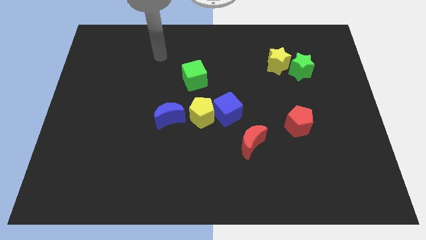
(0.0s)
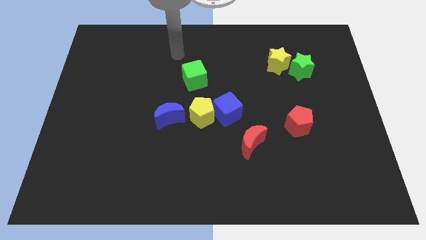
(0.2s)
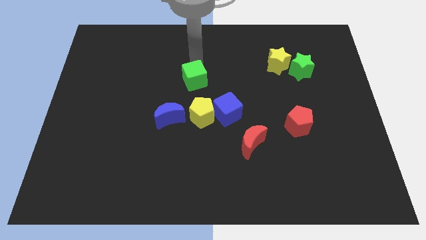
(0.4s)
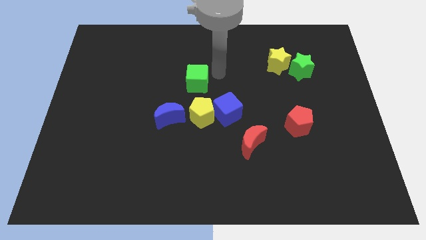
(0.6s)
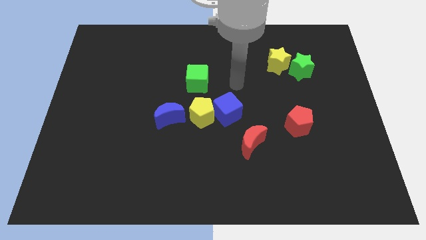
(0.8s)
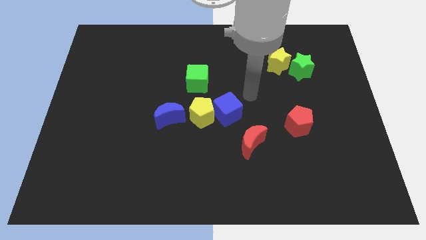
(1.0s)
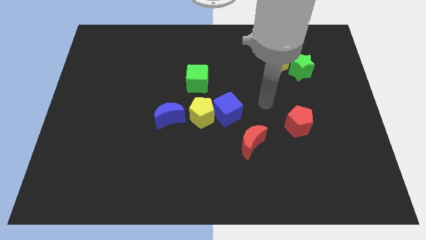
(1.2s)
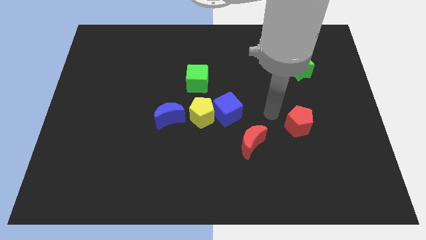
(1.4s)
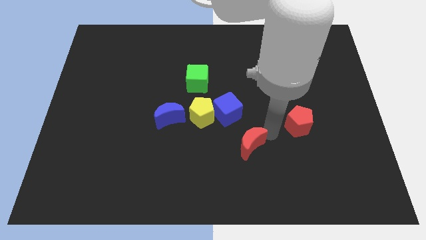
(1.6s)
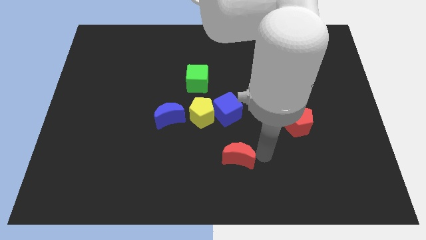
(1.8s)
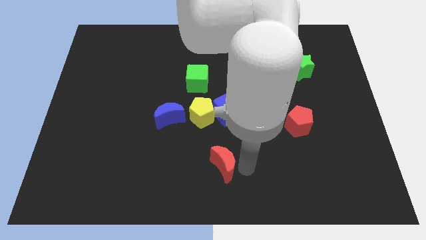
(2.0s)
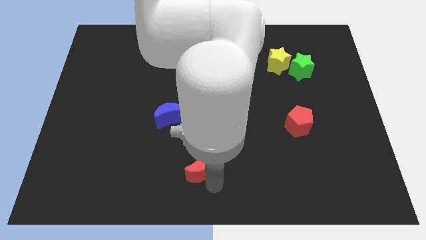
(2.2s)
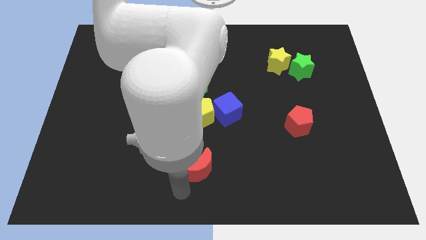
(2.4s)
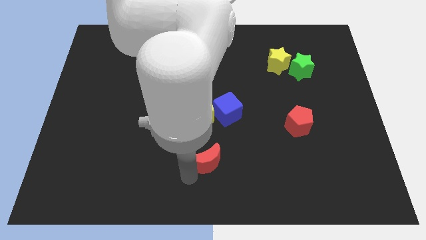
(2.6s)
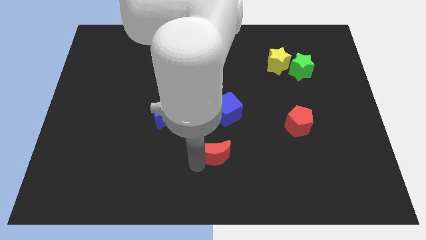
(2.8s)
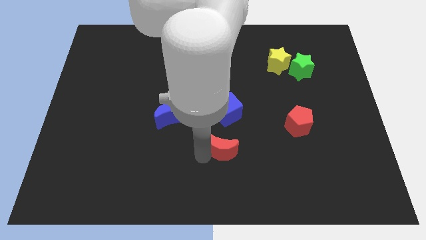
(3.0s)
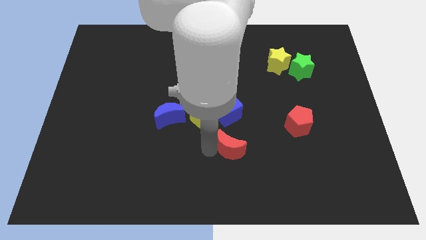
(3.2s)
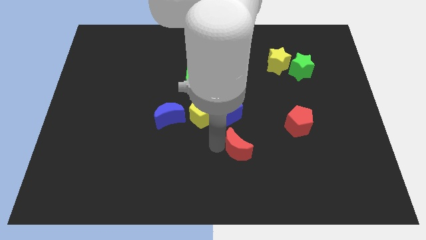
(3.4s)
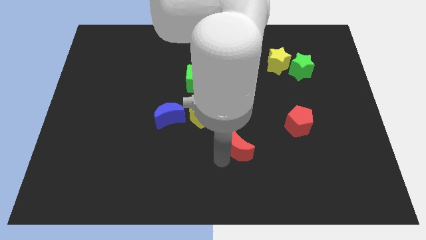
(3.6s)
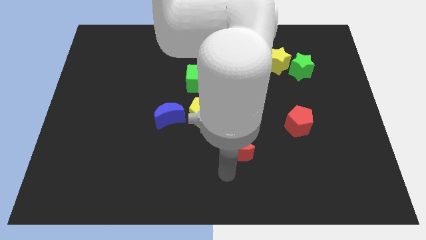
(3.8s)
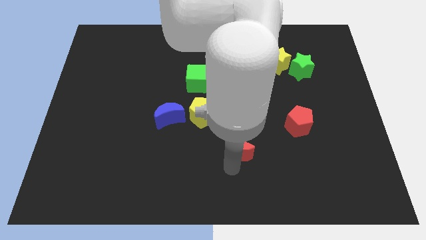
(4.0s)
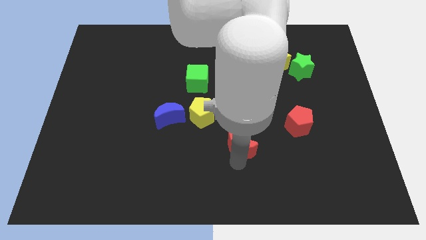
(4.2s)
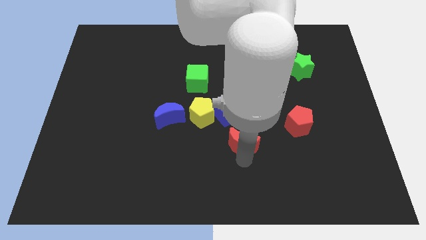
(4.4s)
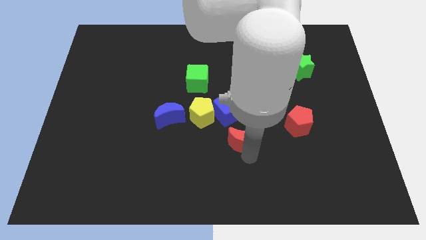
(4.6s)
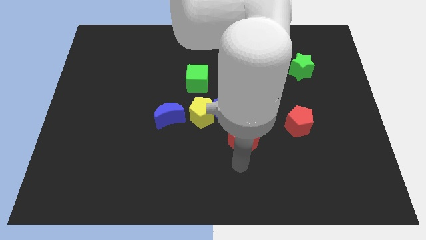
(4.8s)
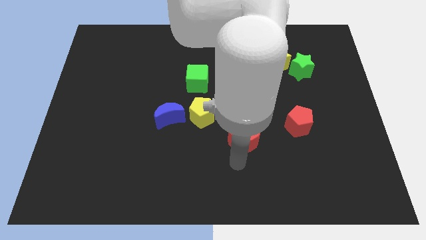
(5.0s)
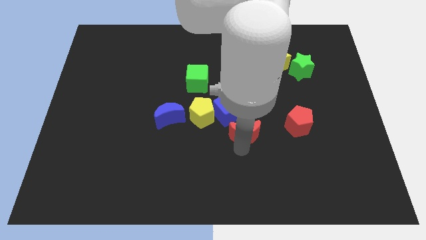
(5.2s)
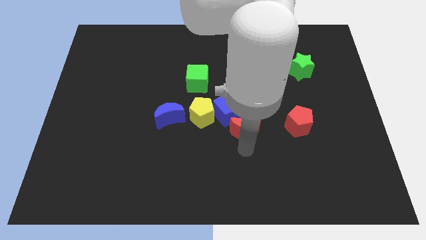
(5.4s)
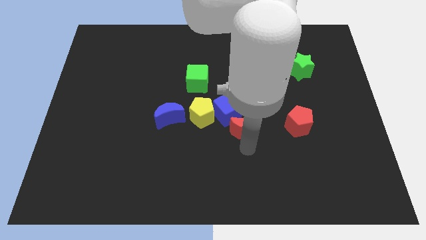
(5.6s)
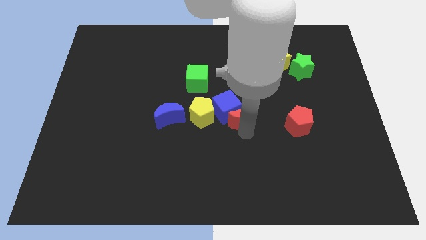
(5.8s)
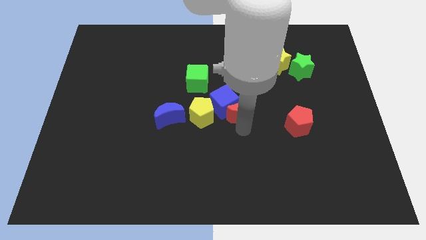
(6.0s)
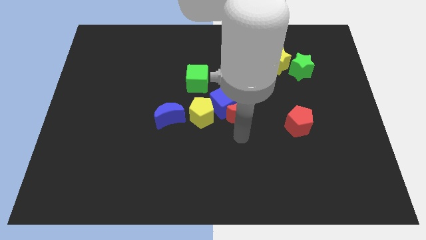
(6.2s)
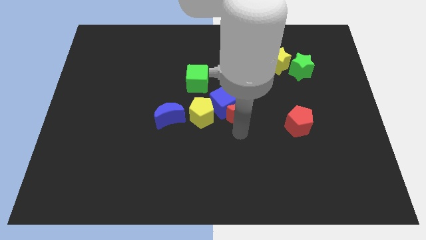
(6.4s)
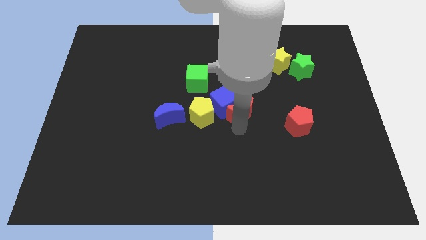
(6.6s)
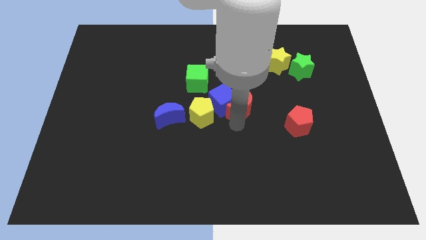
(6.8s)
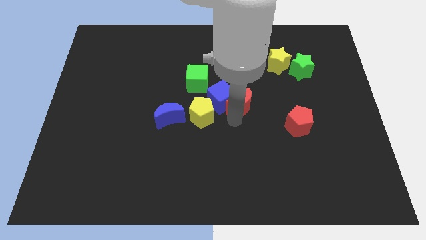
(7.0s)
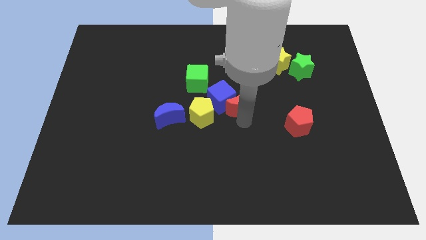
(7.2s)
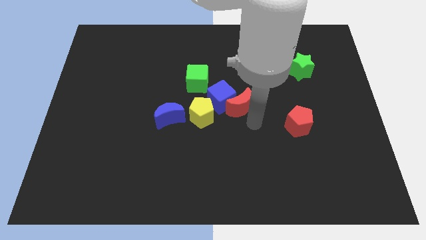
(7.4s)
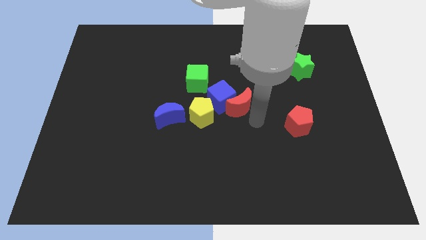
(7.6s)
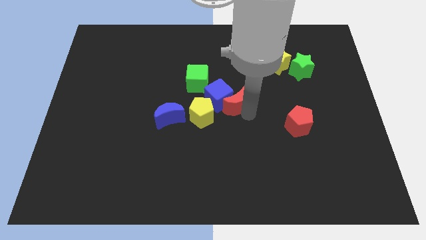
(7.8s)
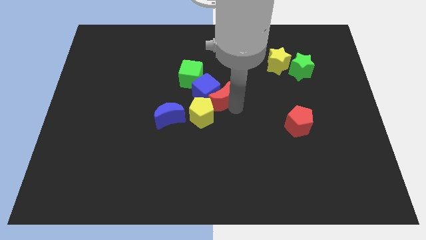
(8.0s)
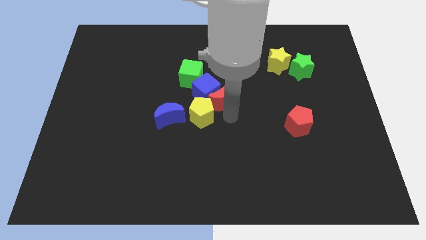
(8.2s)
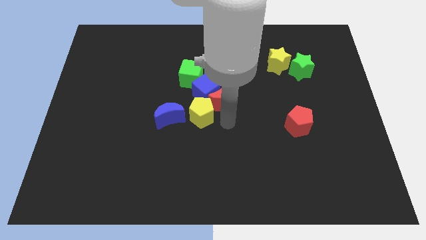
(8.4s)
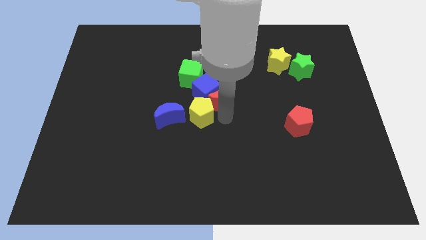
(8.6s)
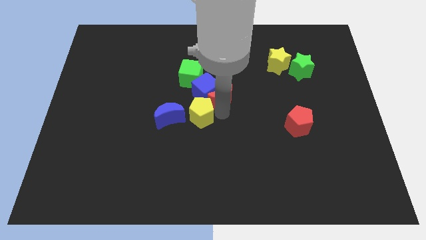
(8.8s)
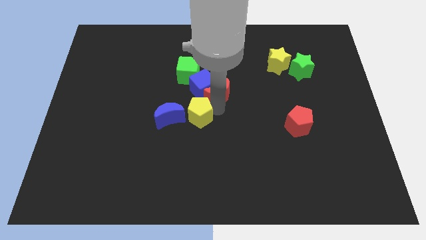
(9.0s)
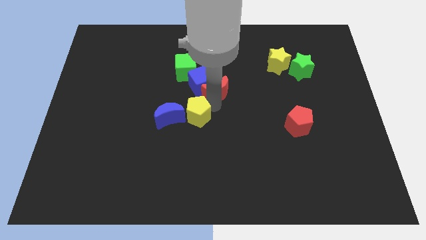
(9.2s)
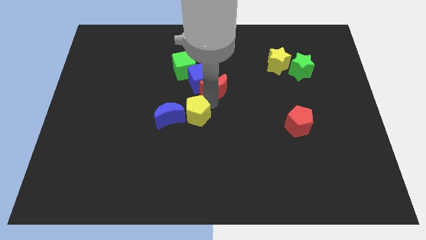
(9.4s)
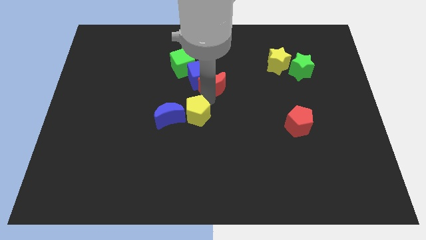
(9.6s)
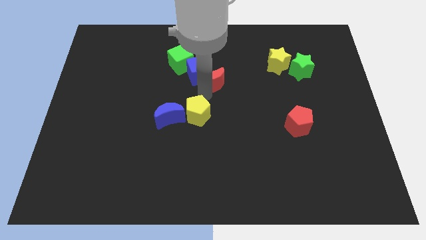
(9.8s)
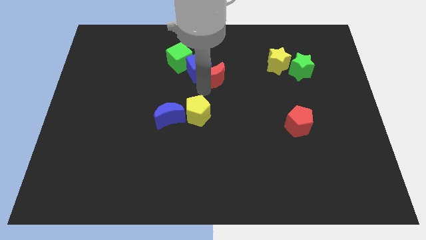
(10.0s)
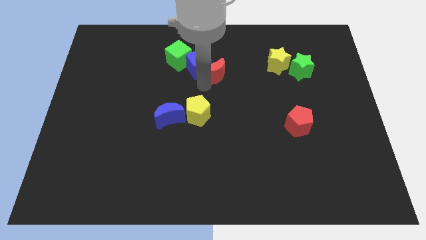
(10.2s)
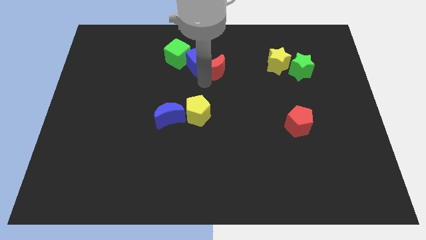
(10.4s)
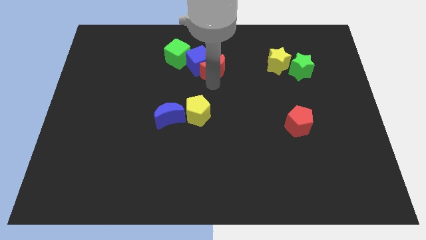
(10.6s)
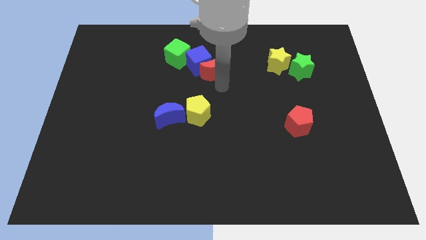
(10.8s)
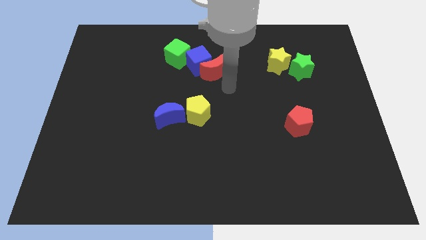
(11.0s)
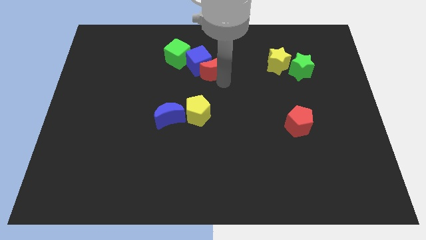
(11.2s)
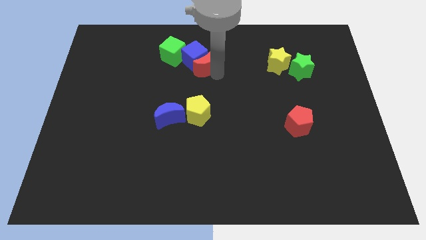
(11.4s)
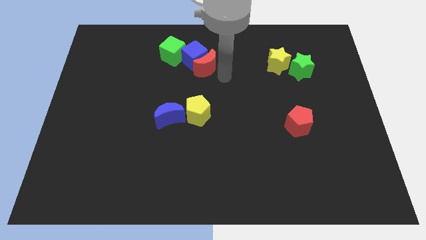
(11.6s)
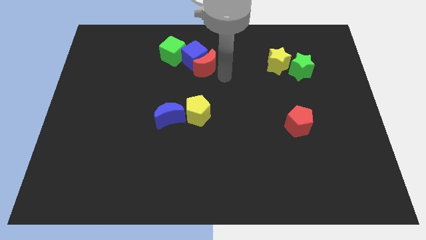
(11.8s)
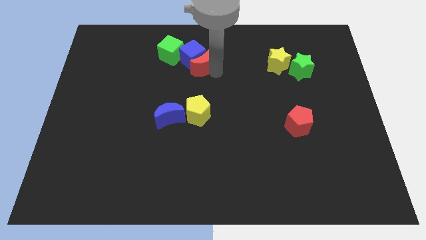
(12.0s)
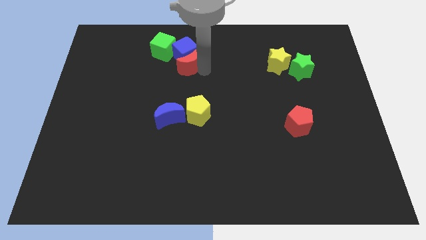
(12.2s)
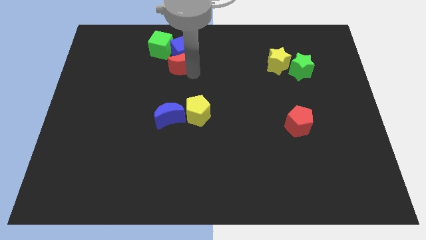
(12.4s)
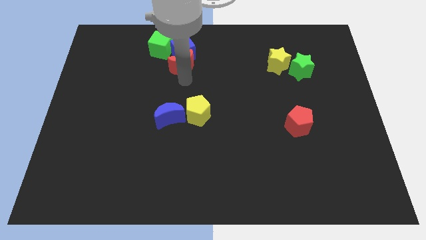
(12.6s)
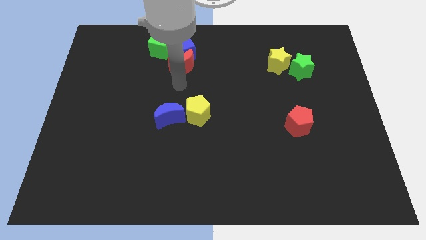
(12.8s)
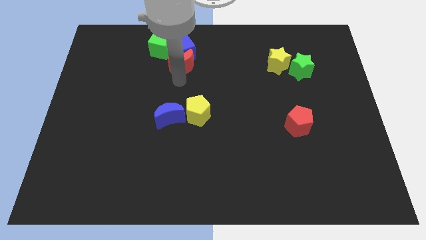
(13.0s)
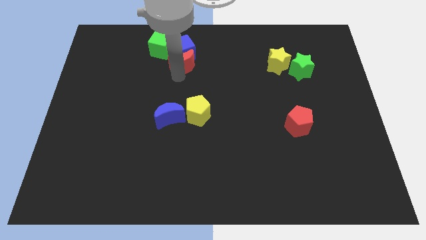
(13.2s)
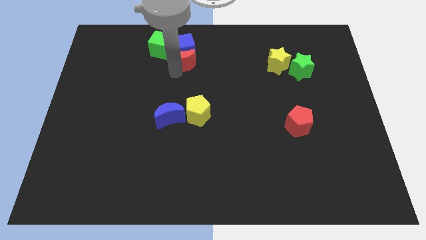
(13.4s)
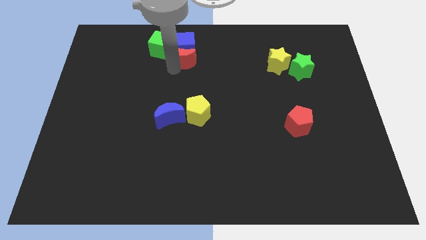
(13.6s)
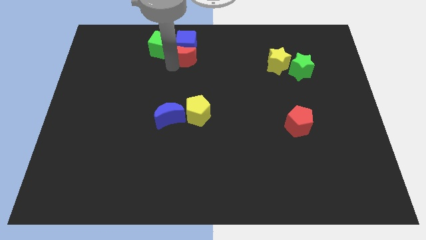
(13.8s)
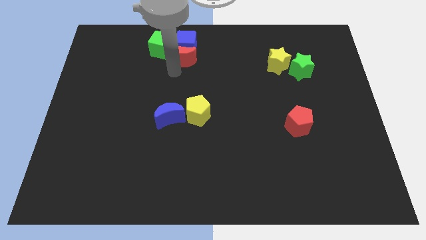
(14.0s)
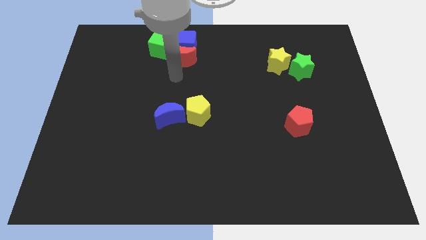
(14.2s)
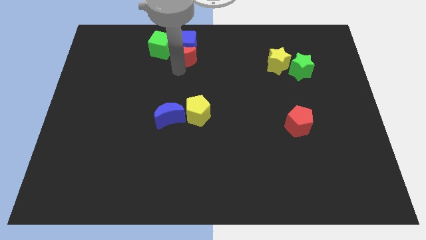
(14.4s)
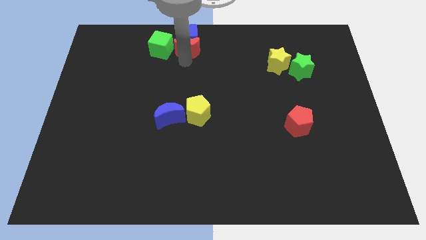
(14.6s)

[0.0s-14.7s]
slide the red moon to the top side
